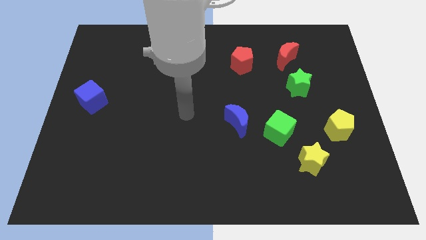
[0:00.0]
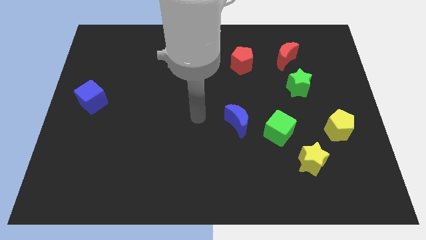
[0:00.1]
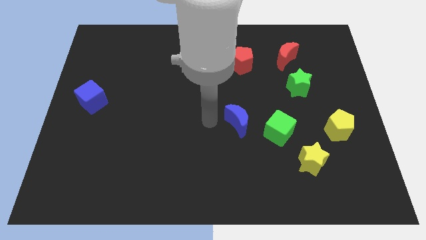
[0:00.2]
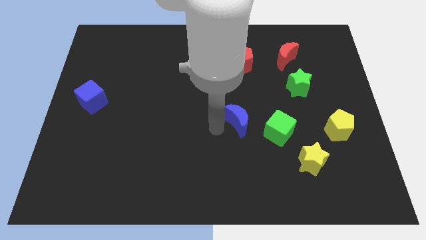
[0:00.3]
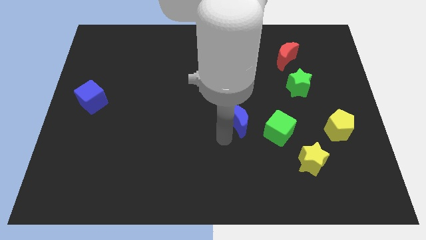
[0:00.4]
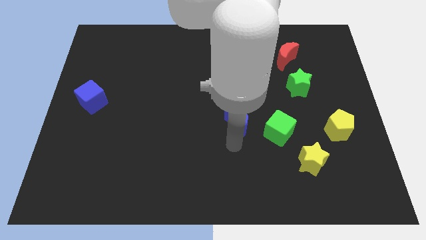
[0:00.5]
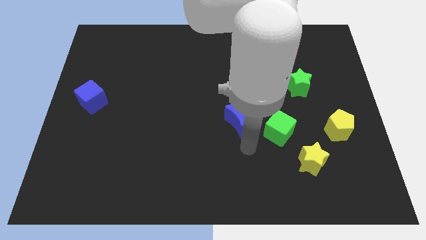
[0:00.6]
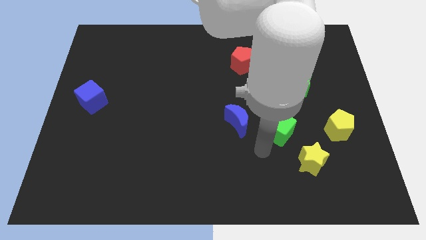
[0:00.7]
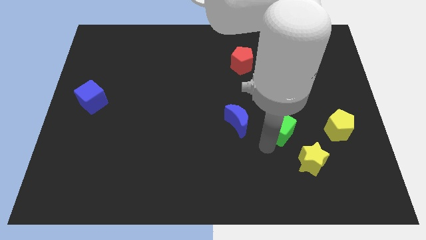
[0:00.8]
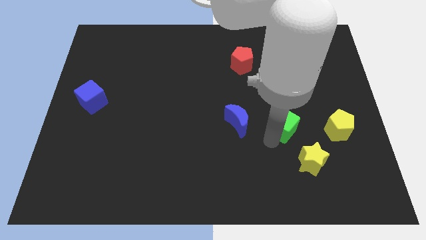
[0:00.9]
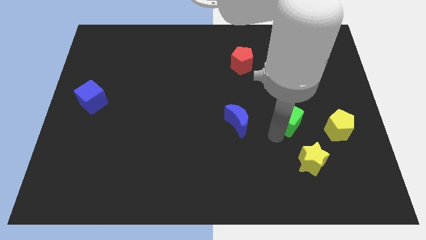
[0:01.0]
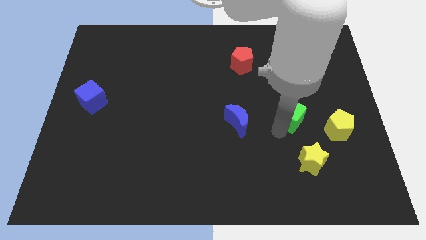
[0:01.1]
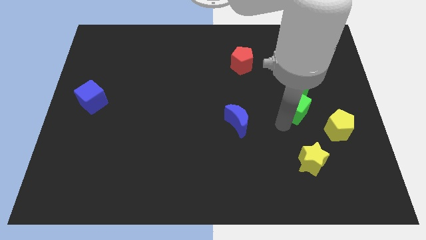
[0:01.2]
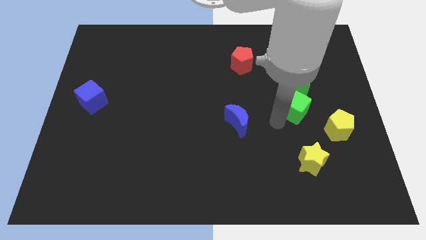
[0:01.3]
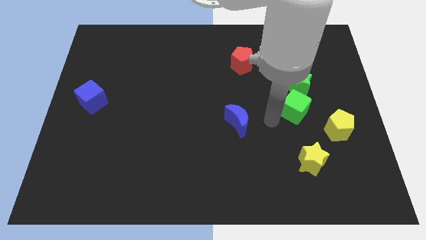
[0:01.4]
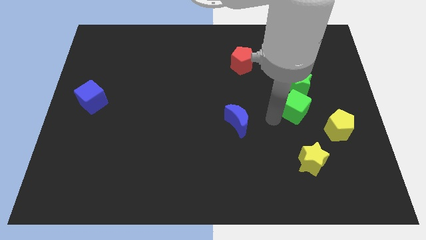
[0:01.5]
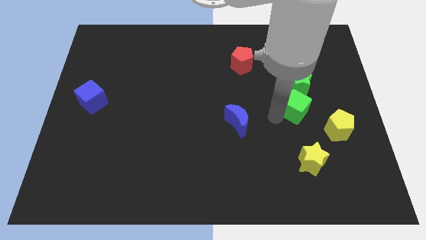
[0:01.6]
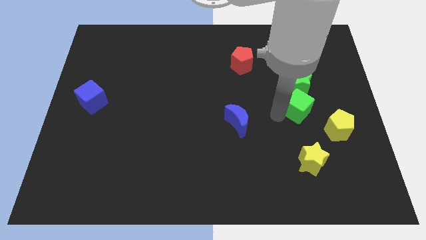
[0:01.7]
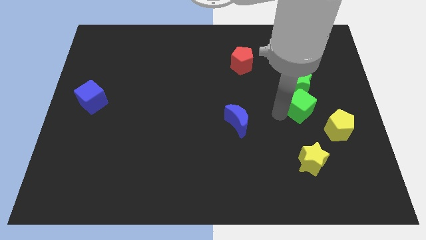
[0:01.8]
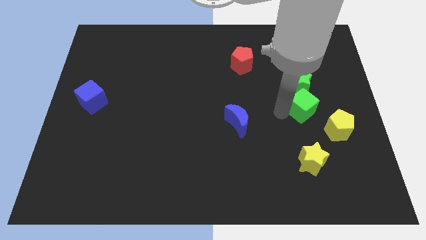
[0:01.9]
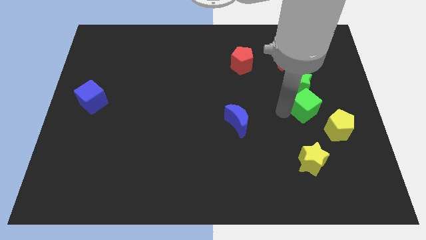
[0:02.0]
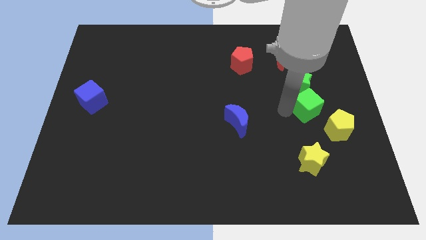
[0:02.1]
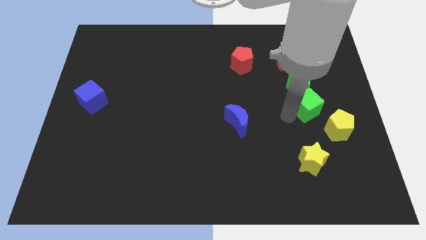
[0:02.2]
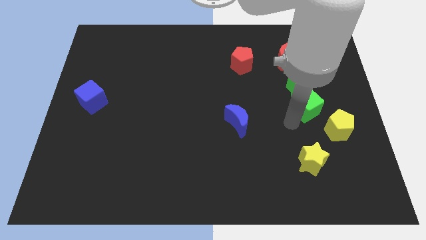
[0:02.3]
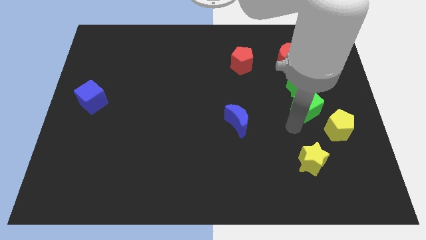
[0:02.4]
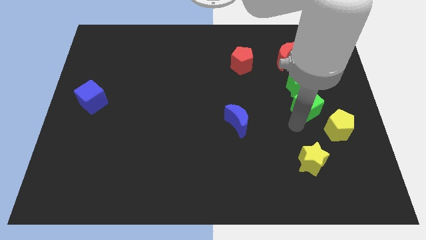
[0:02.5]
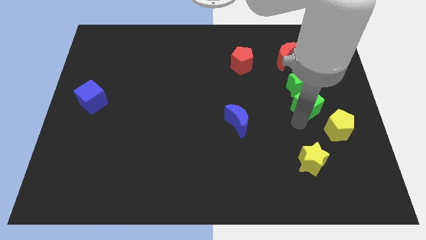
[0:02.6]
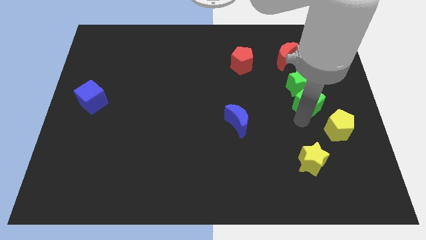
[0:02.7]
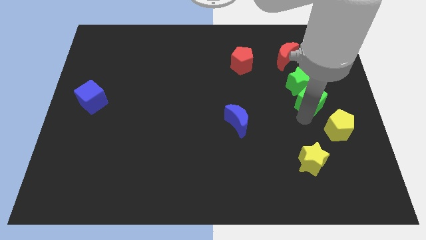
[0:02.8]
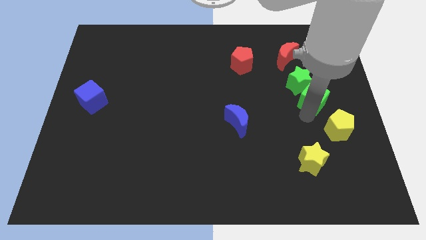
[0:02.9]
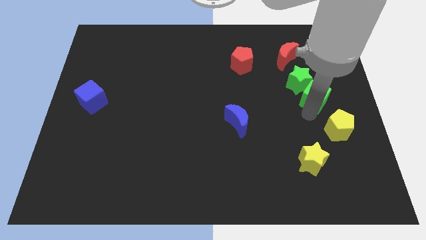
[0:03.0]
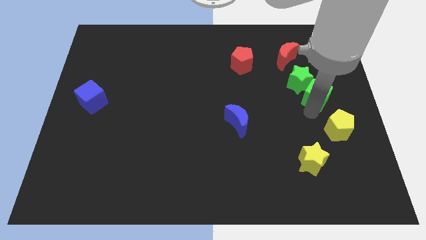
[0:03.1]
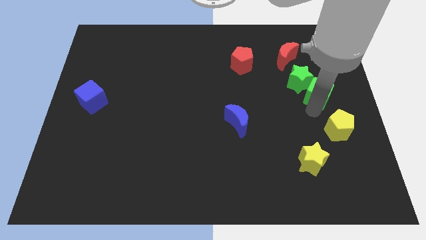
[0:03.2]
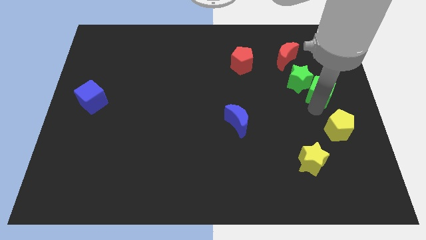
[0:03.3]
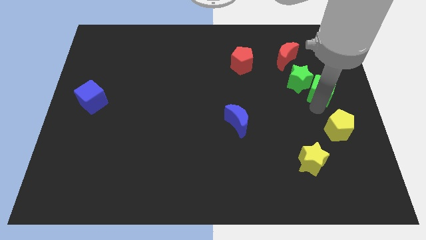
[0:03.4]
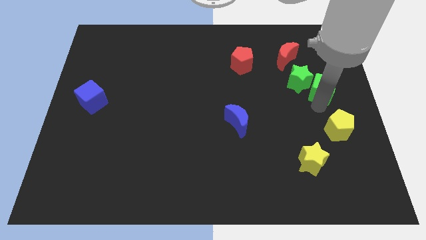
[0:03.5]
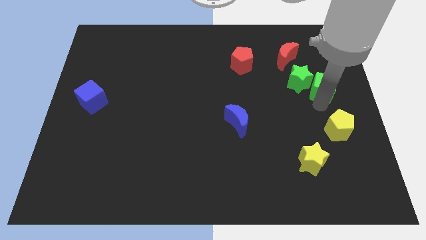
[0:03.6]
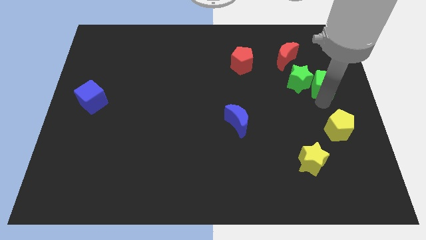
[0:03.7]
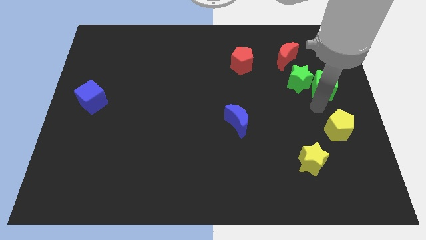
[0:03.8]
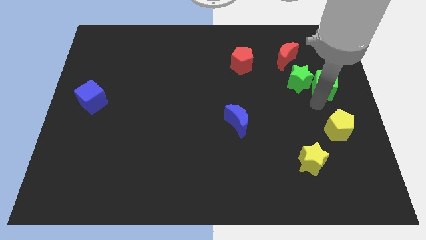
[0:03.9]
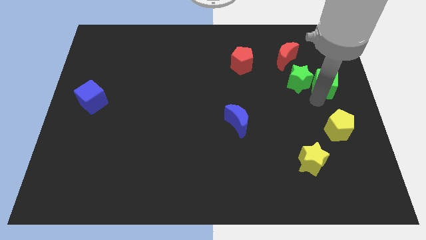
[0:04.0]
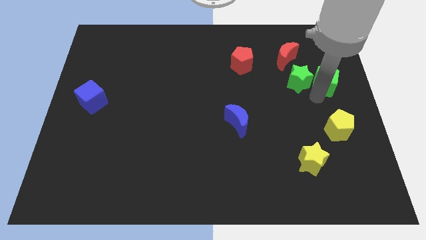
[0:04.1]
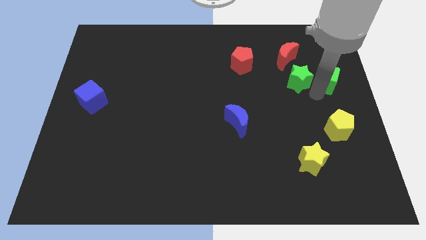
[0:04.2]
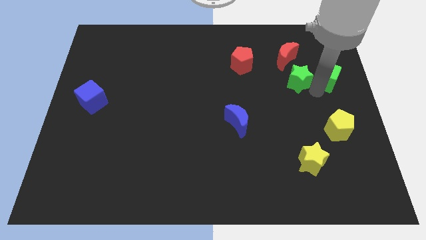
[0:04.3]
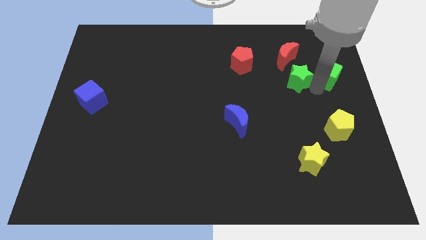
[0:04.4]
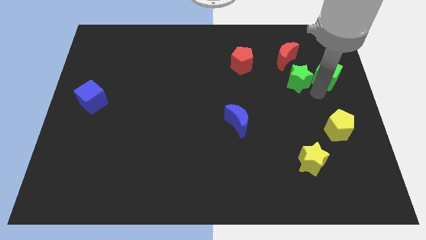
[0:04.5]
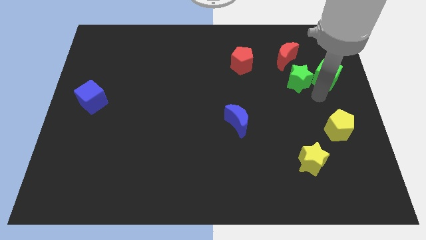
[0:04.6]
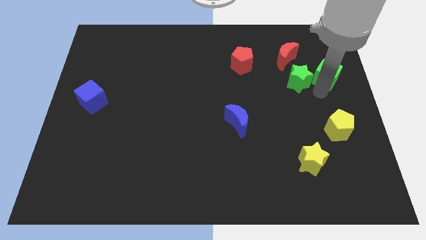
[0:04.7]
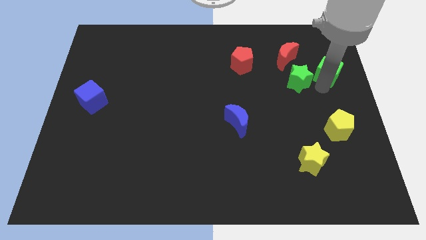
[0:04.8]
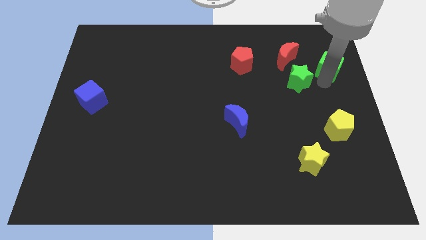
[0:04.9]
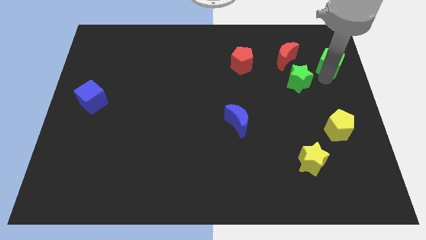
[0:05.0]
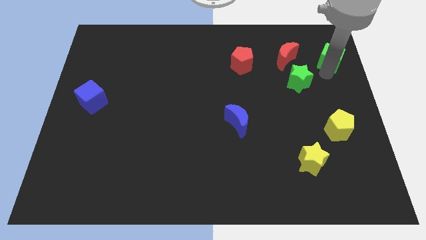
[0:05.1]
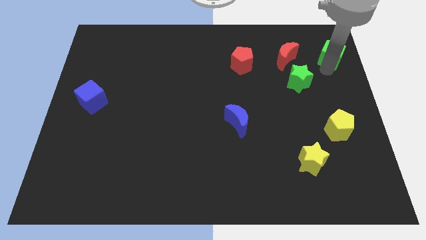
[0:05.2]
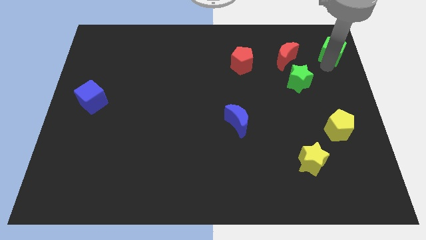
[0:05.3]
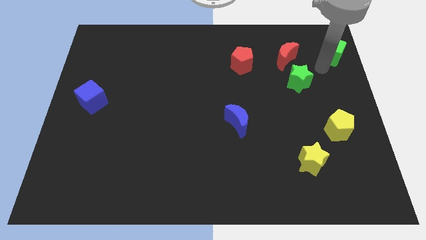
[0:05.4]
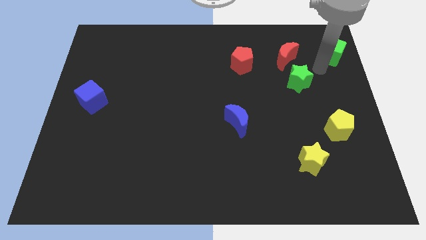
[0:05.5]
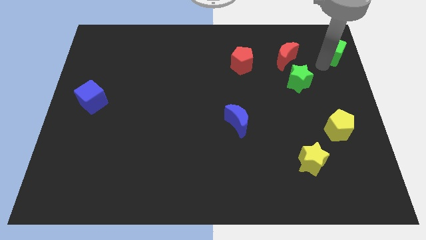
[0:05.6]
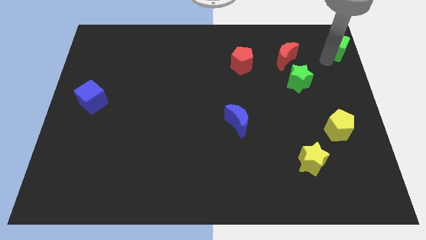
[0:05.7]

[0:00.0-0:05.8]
move the green cube to the top right

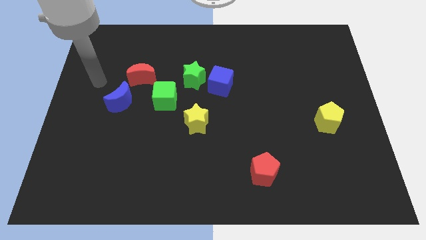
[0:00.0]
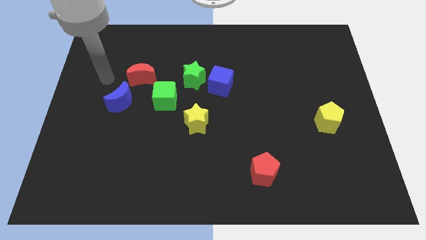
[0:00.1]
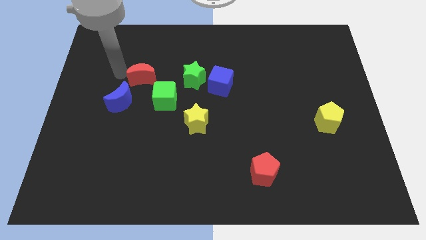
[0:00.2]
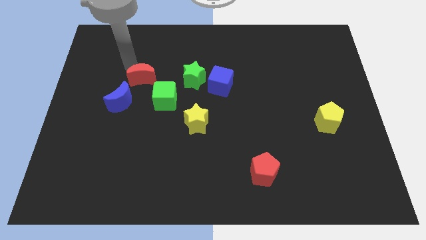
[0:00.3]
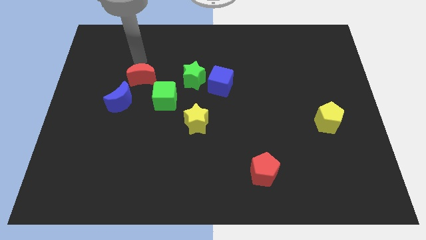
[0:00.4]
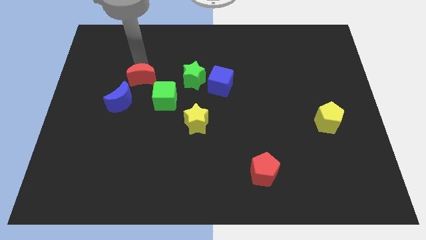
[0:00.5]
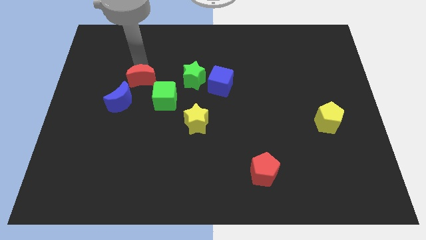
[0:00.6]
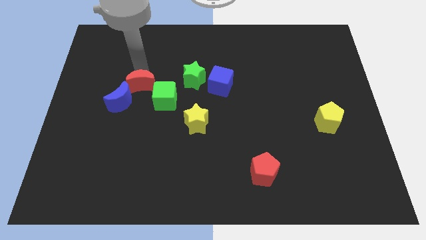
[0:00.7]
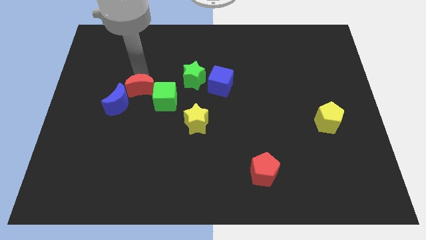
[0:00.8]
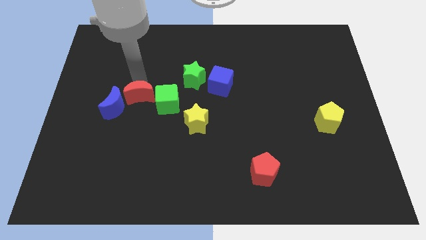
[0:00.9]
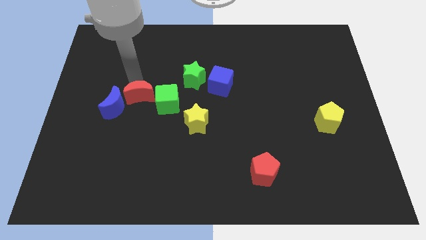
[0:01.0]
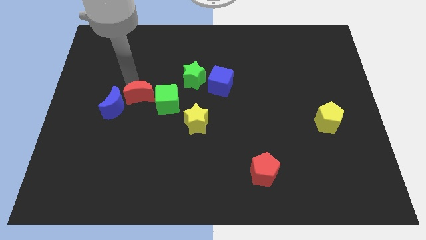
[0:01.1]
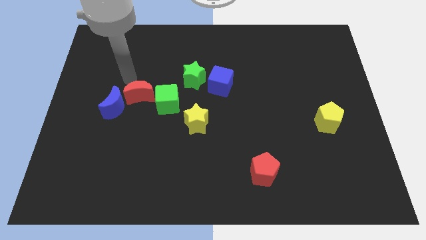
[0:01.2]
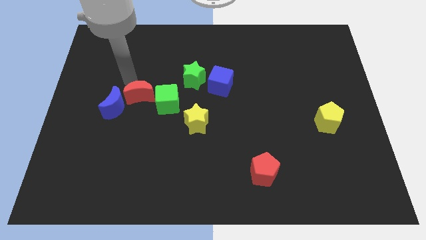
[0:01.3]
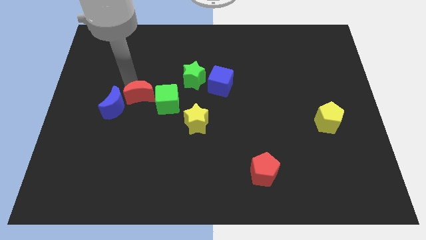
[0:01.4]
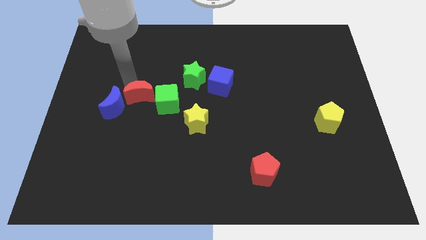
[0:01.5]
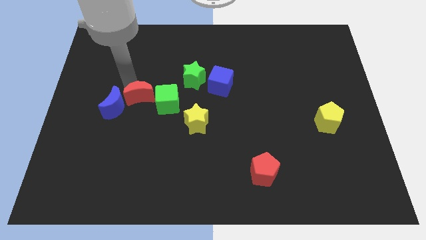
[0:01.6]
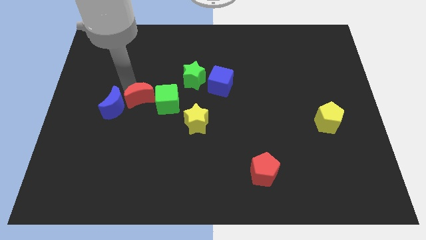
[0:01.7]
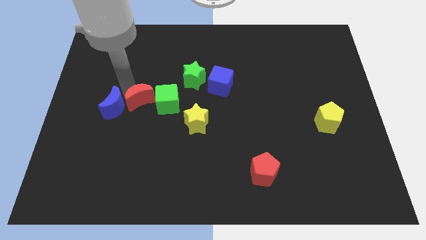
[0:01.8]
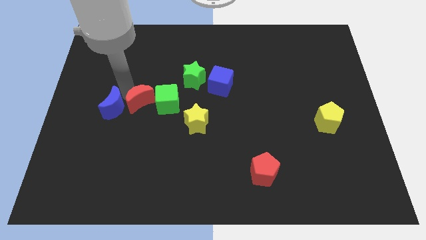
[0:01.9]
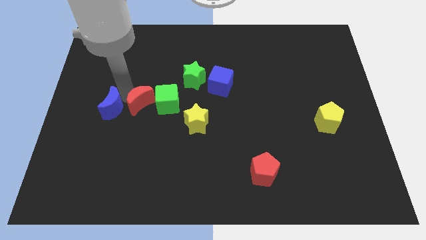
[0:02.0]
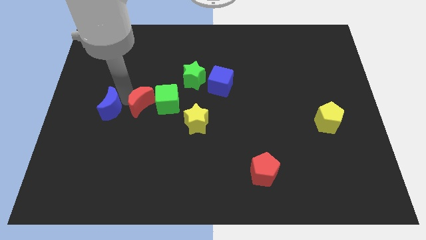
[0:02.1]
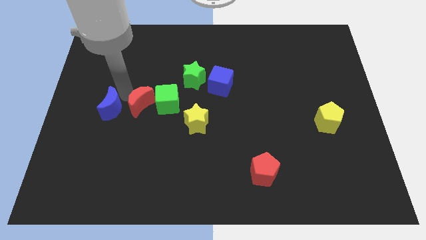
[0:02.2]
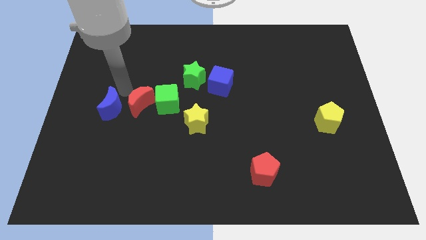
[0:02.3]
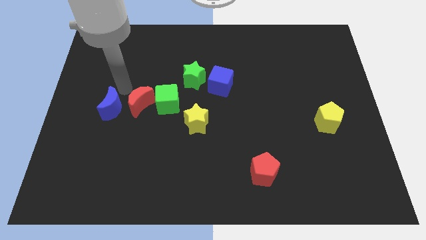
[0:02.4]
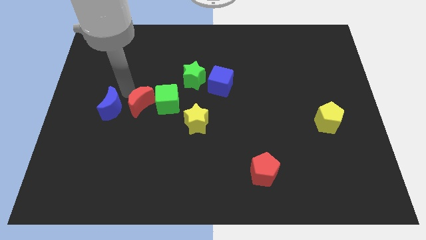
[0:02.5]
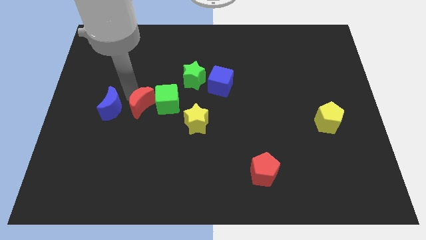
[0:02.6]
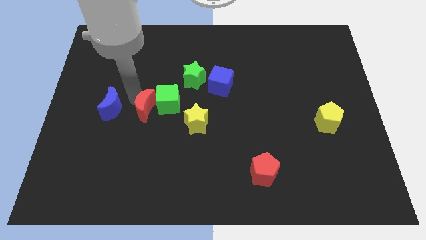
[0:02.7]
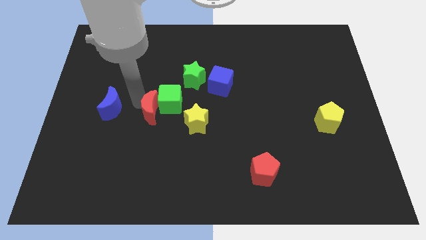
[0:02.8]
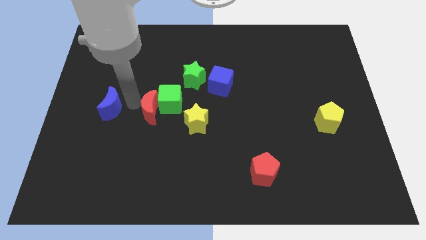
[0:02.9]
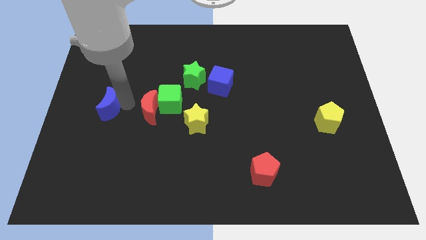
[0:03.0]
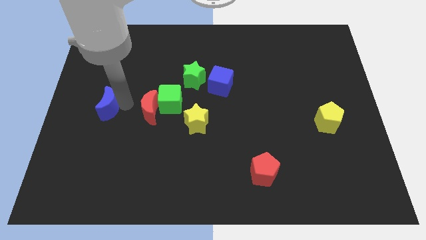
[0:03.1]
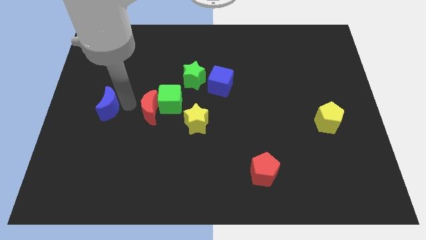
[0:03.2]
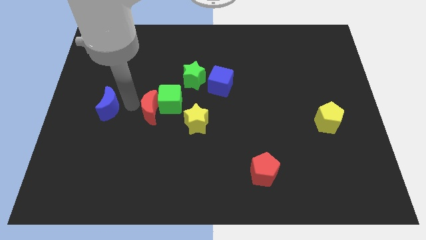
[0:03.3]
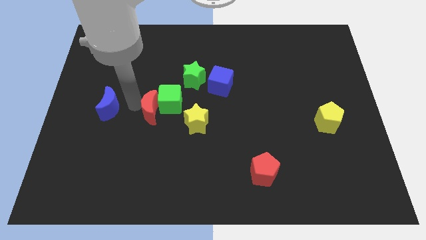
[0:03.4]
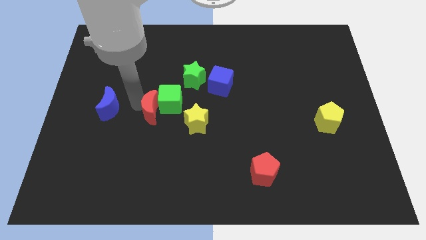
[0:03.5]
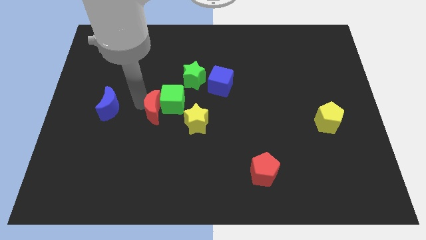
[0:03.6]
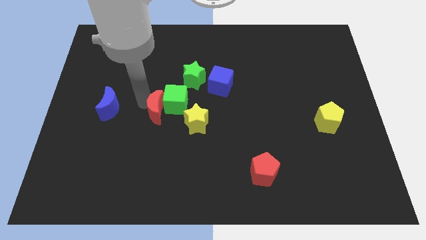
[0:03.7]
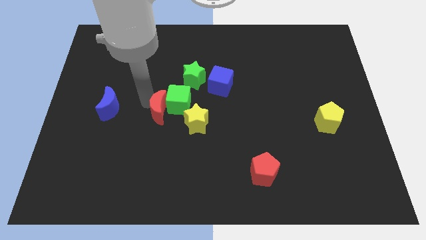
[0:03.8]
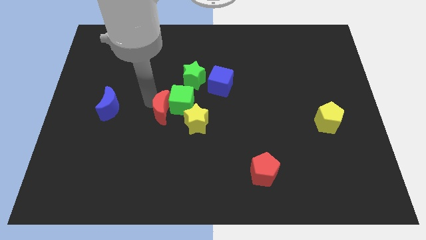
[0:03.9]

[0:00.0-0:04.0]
put the red moon to the center of the board
